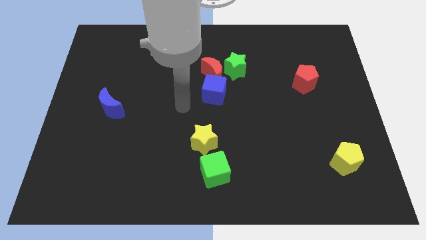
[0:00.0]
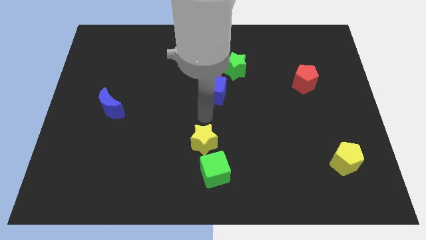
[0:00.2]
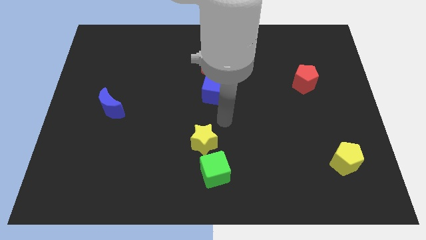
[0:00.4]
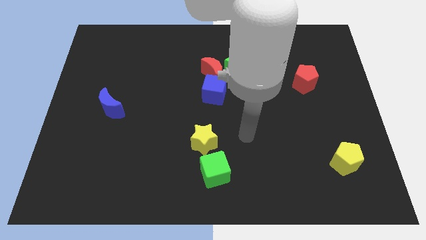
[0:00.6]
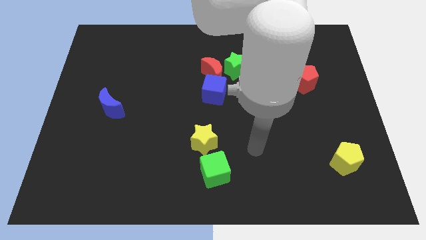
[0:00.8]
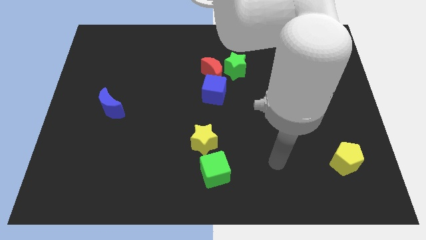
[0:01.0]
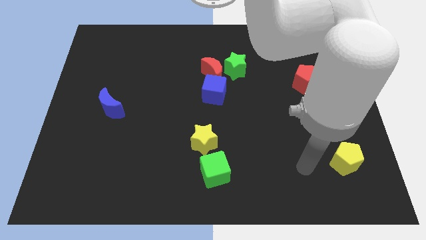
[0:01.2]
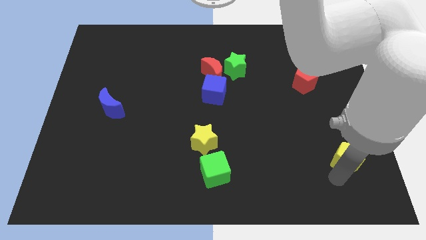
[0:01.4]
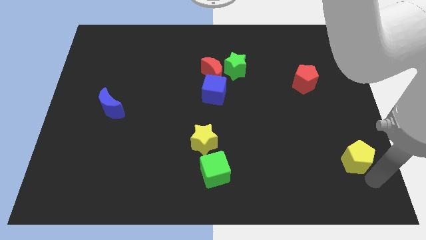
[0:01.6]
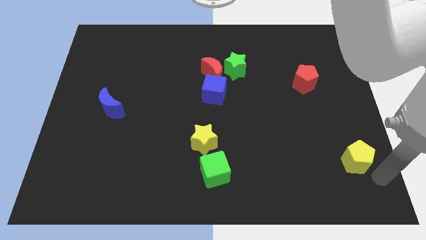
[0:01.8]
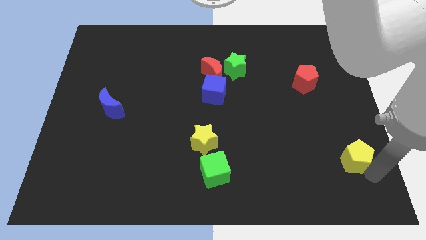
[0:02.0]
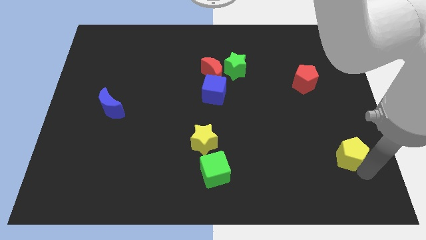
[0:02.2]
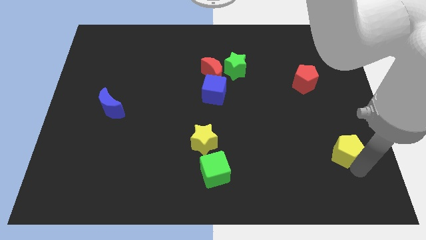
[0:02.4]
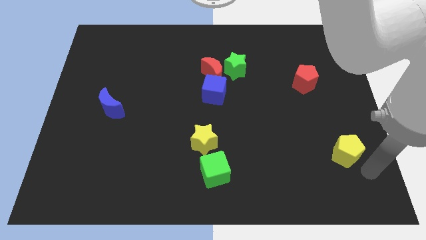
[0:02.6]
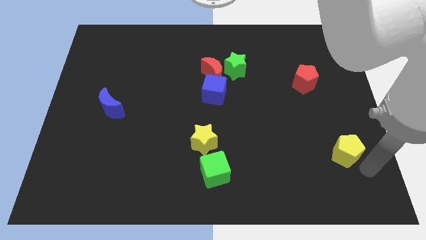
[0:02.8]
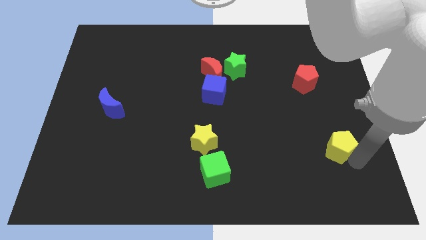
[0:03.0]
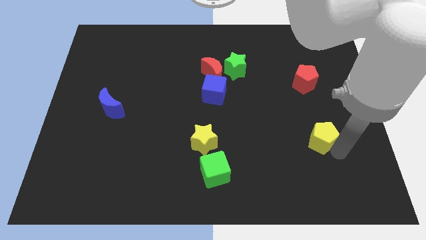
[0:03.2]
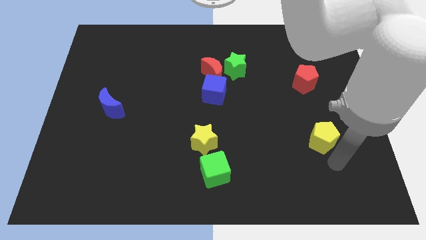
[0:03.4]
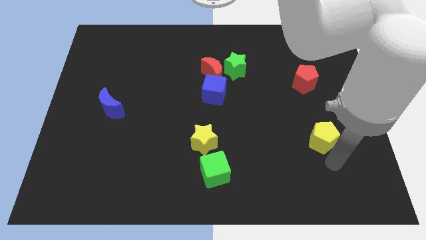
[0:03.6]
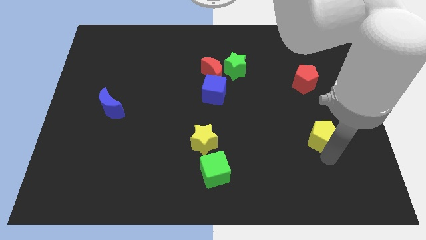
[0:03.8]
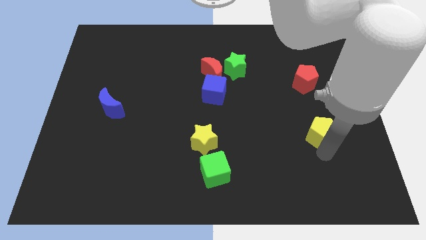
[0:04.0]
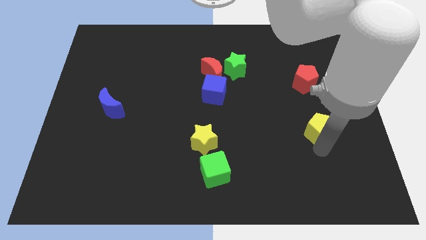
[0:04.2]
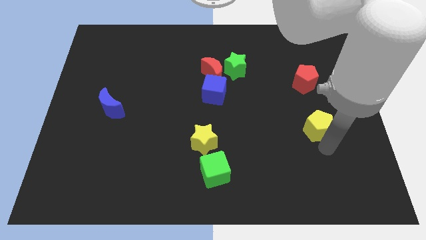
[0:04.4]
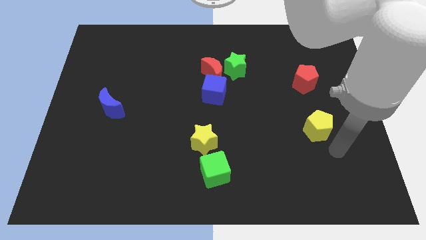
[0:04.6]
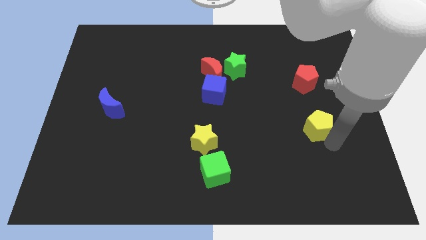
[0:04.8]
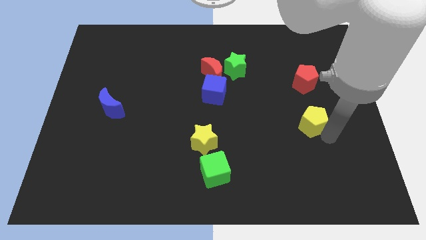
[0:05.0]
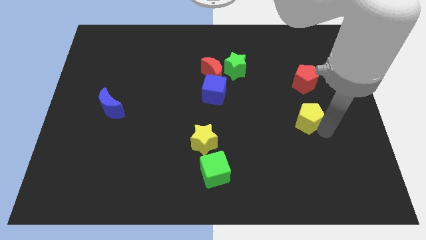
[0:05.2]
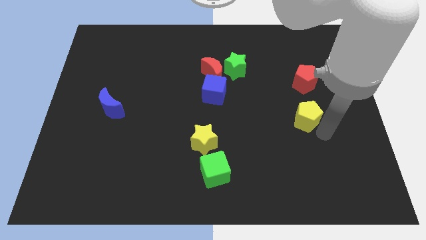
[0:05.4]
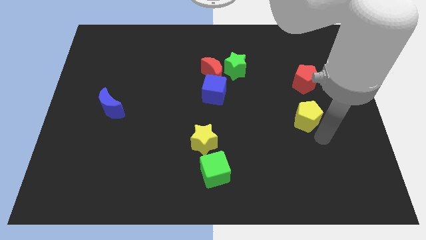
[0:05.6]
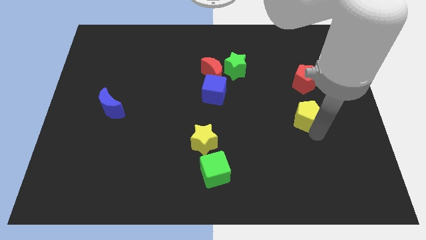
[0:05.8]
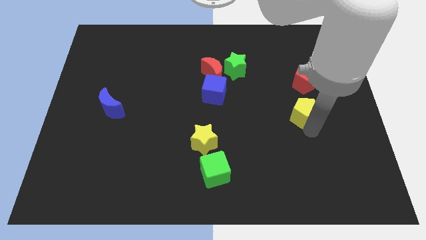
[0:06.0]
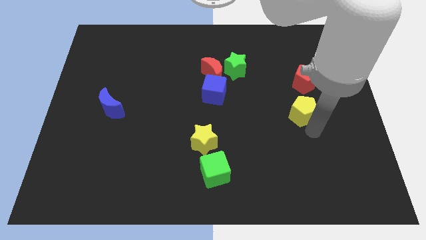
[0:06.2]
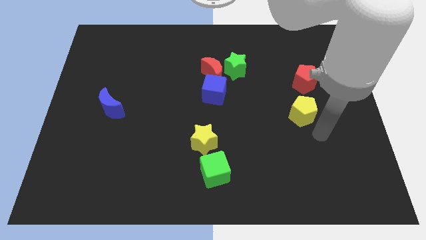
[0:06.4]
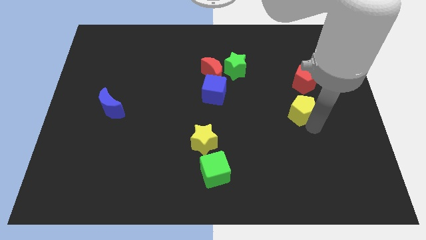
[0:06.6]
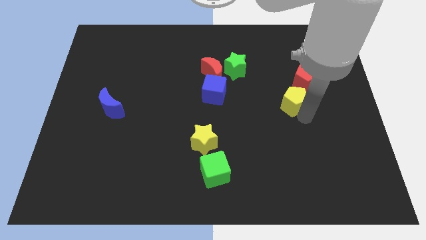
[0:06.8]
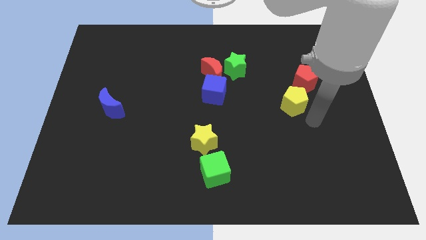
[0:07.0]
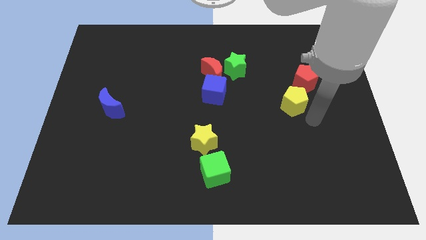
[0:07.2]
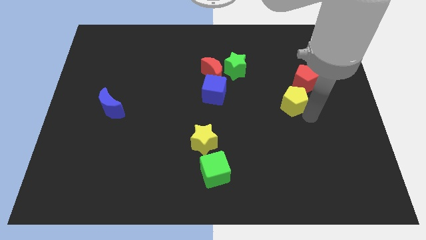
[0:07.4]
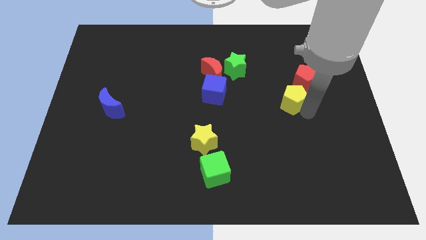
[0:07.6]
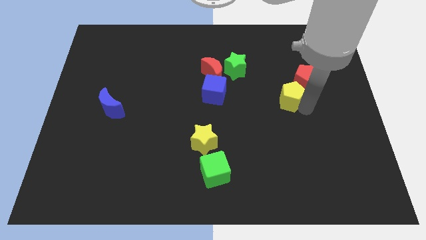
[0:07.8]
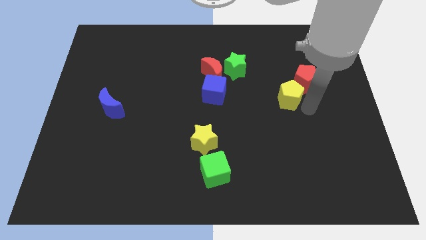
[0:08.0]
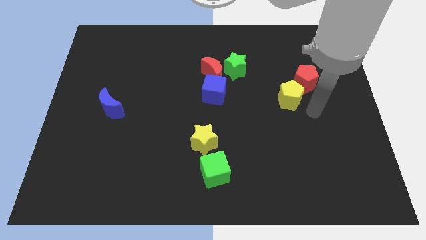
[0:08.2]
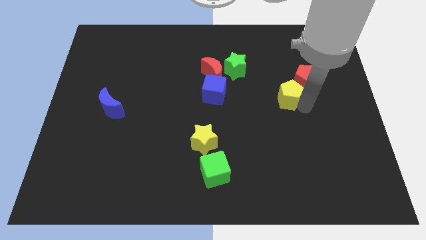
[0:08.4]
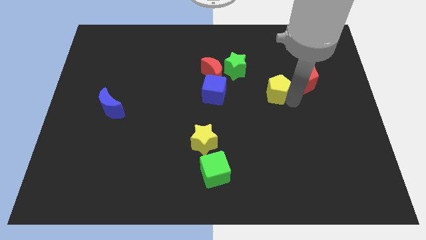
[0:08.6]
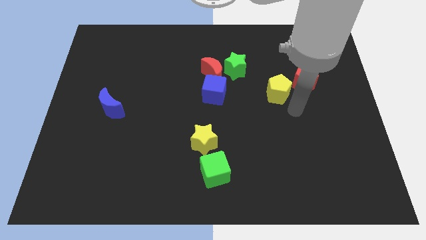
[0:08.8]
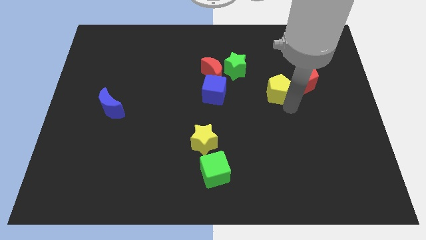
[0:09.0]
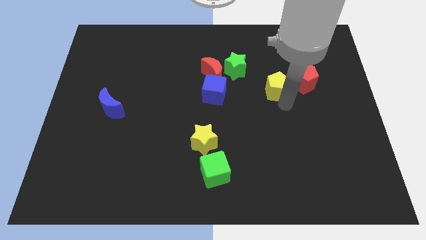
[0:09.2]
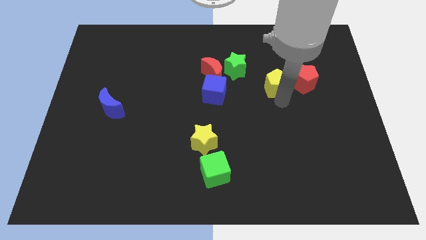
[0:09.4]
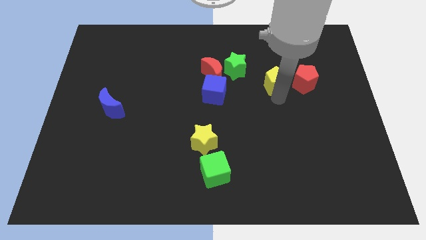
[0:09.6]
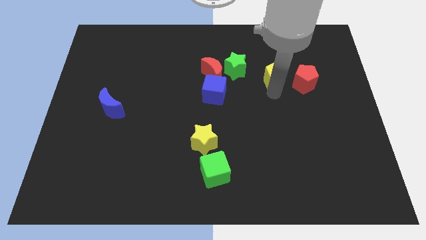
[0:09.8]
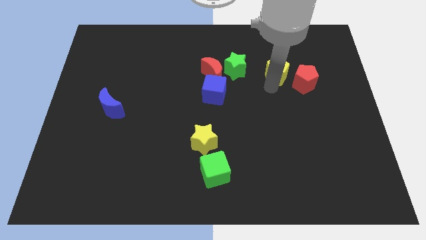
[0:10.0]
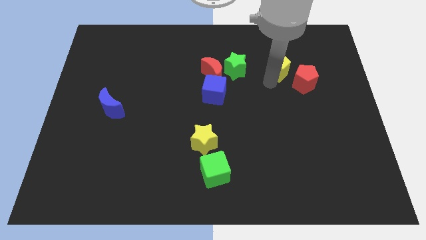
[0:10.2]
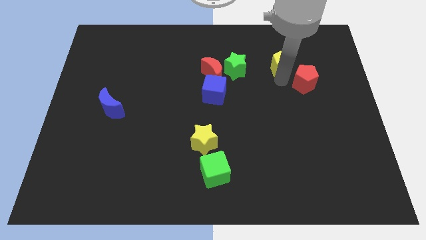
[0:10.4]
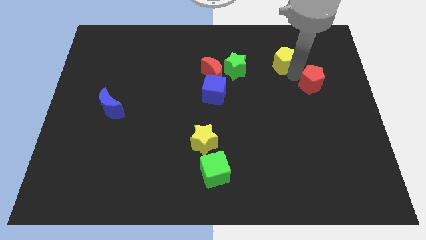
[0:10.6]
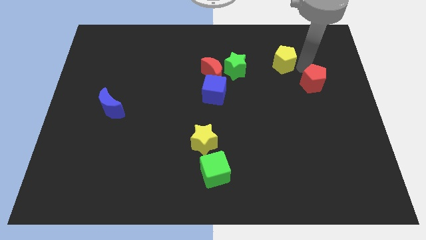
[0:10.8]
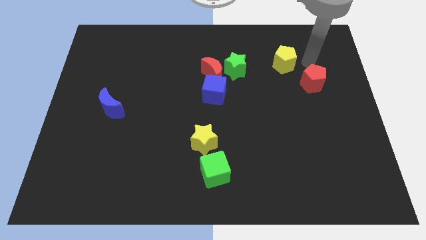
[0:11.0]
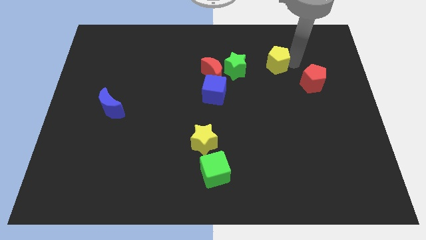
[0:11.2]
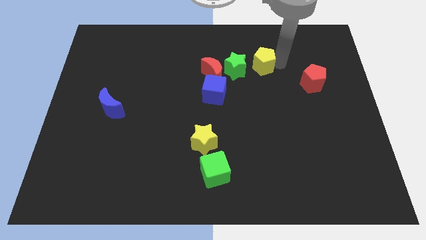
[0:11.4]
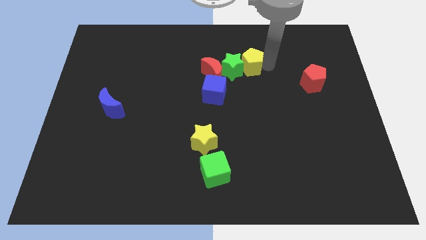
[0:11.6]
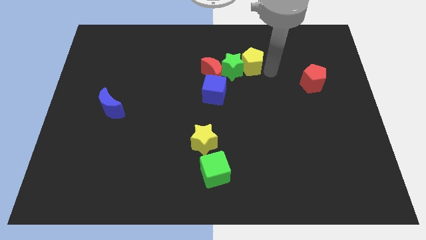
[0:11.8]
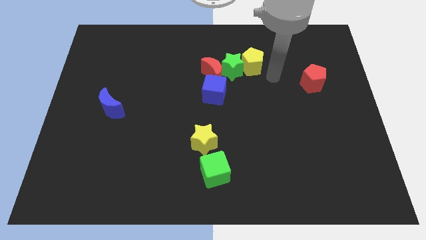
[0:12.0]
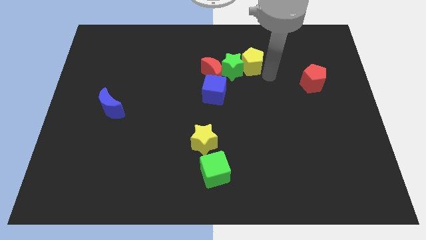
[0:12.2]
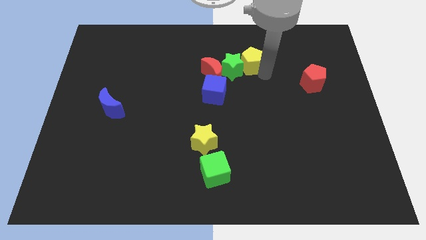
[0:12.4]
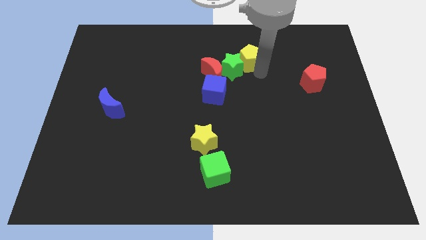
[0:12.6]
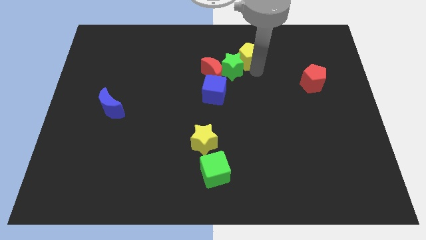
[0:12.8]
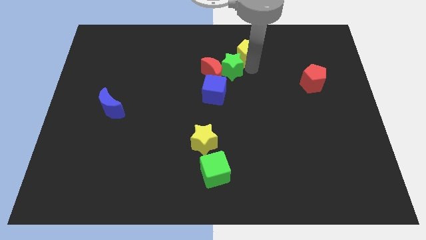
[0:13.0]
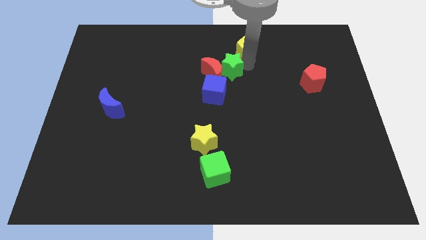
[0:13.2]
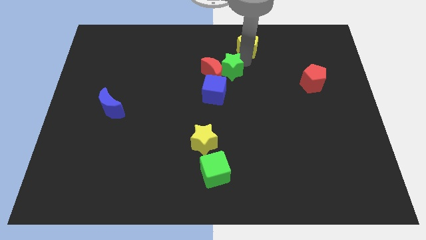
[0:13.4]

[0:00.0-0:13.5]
slide the yellow pentagon to the top side
